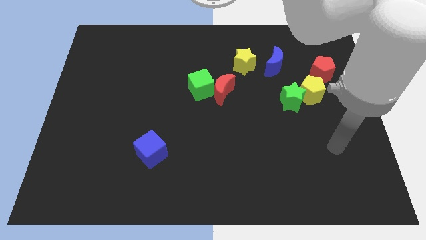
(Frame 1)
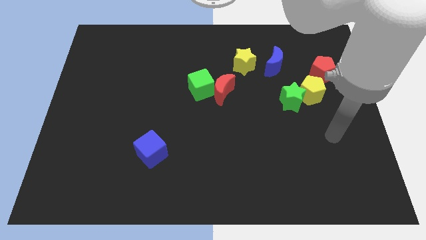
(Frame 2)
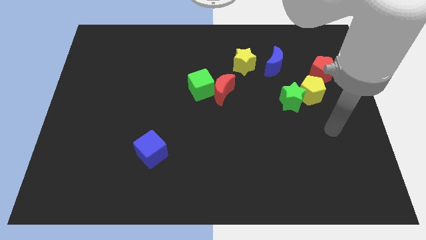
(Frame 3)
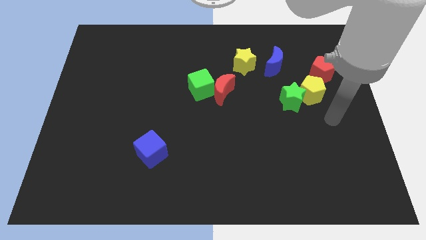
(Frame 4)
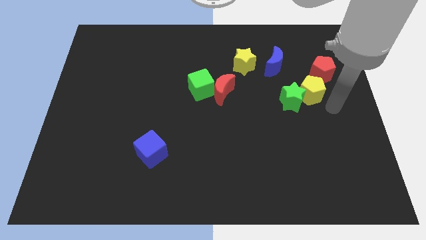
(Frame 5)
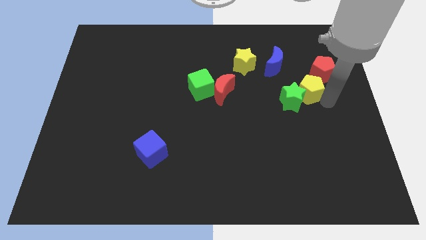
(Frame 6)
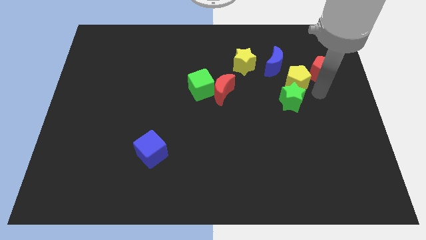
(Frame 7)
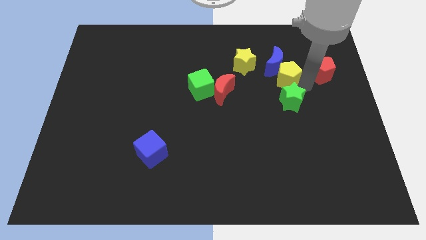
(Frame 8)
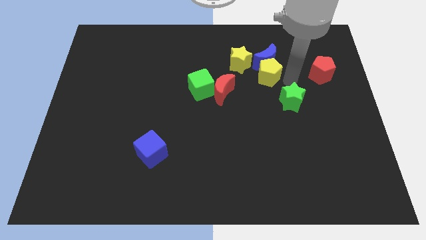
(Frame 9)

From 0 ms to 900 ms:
move the green star away from the yellow pentagon

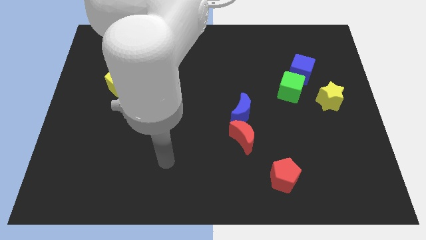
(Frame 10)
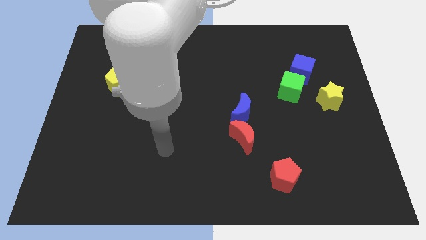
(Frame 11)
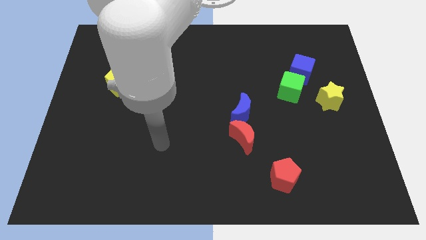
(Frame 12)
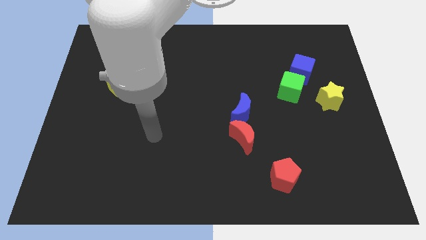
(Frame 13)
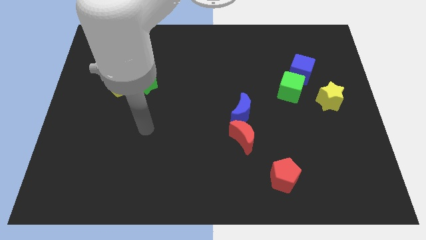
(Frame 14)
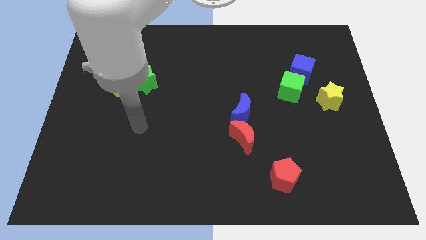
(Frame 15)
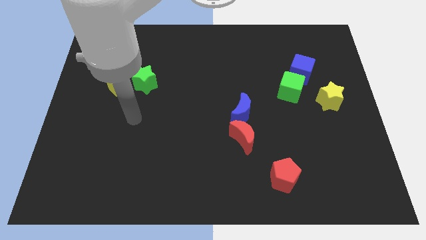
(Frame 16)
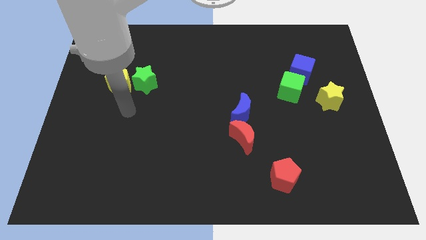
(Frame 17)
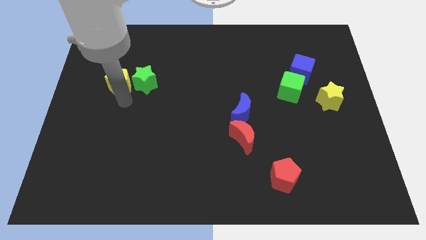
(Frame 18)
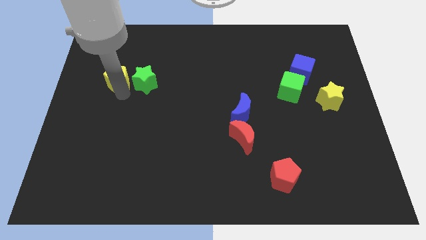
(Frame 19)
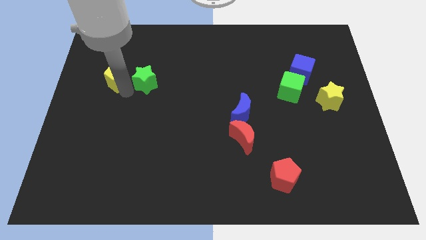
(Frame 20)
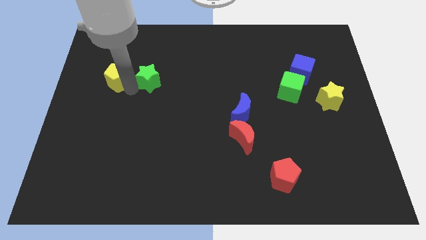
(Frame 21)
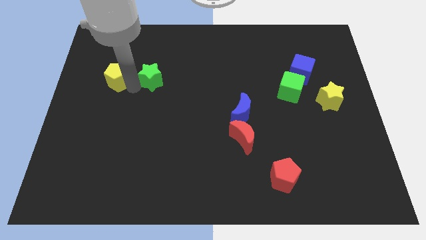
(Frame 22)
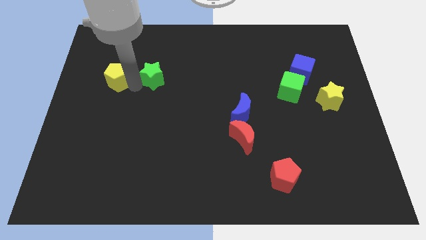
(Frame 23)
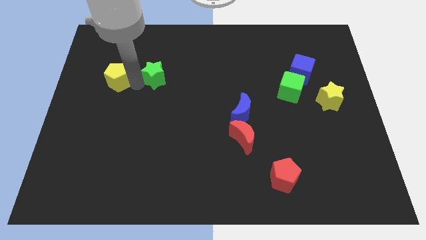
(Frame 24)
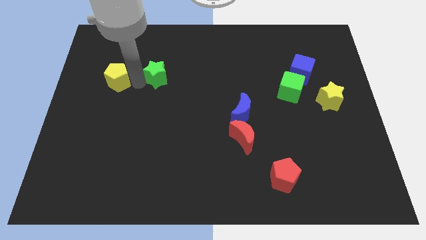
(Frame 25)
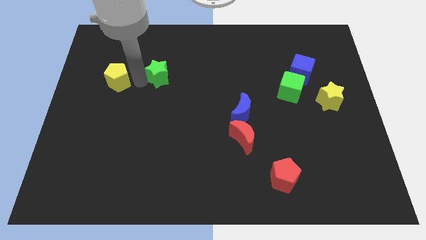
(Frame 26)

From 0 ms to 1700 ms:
pull the green star apart from the yellow pentagon

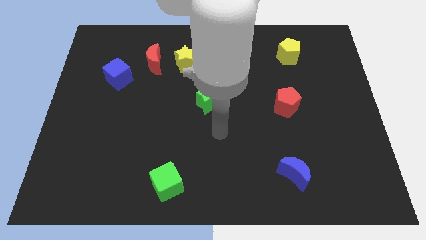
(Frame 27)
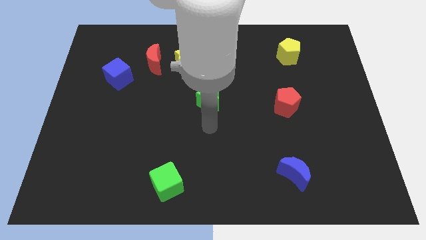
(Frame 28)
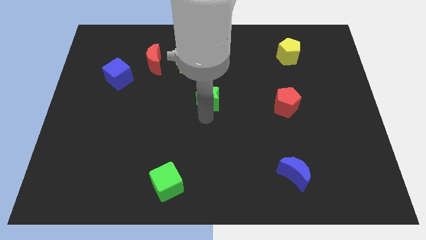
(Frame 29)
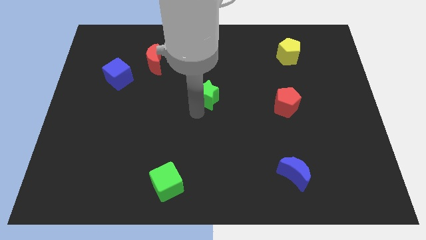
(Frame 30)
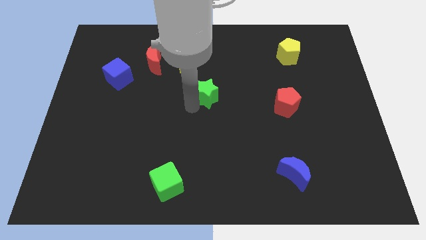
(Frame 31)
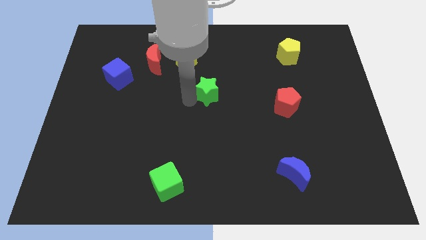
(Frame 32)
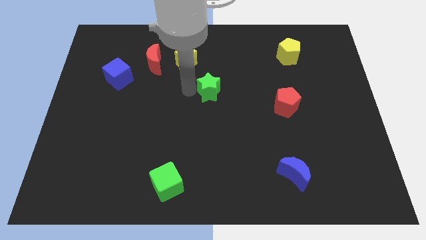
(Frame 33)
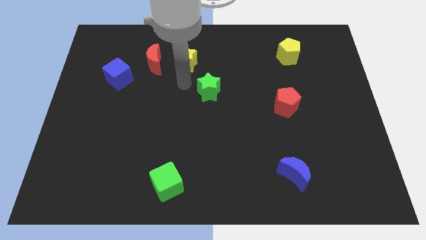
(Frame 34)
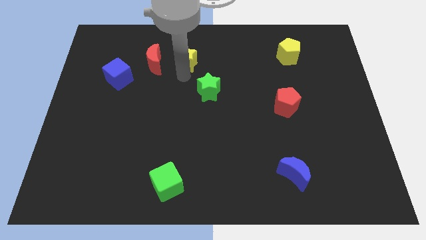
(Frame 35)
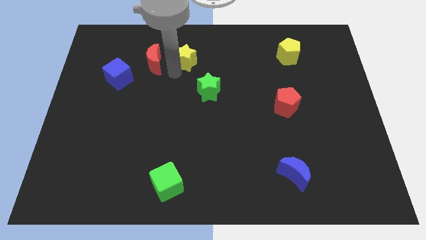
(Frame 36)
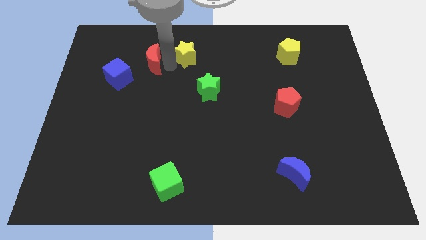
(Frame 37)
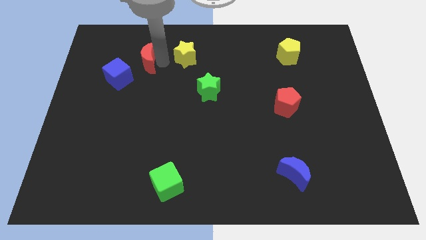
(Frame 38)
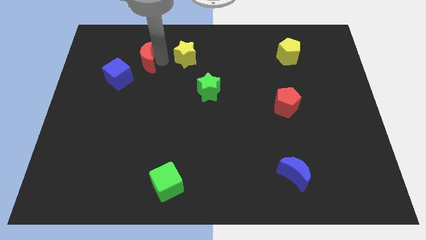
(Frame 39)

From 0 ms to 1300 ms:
separate the yellow star from the red moon

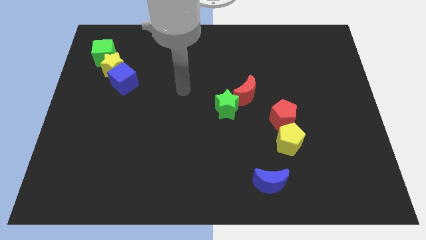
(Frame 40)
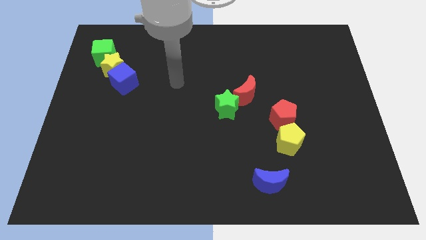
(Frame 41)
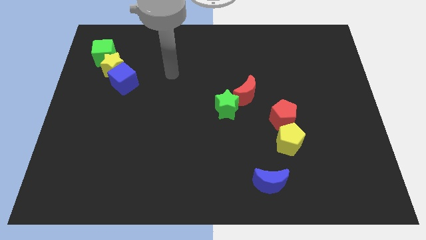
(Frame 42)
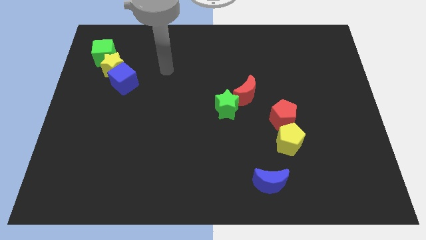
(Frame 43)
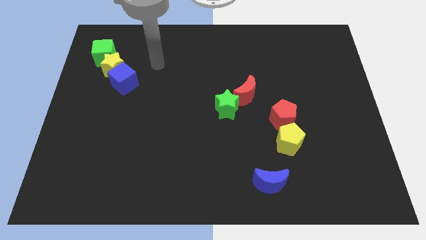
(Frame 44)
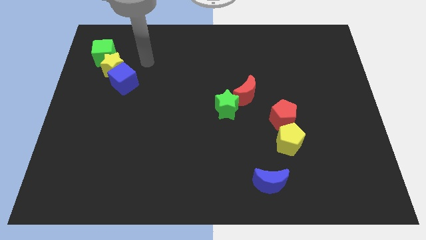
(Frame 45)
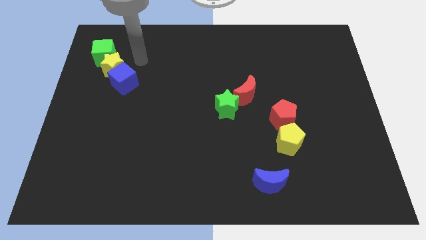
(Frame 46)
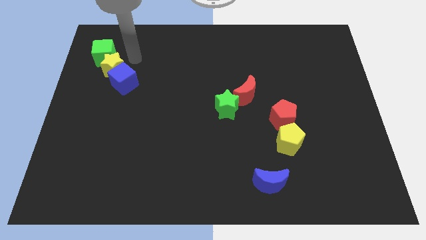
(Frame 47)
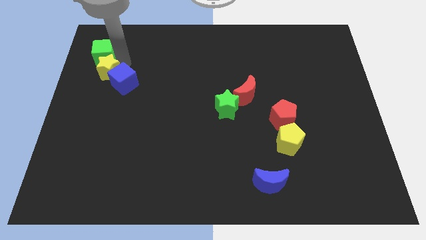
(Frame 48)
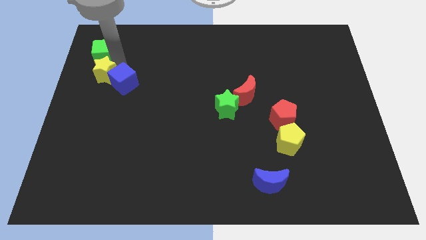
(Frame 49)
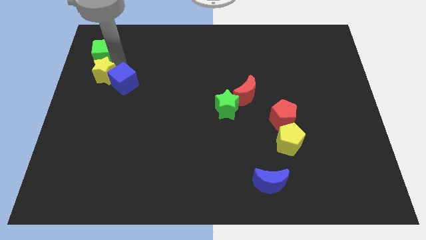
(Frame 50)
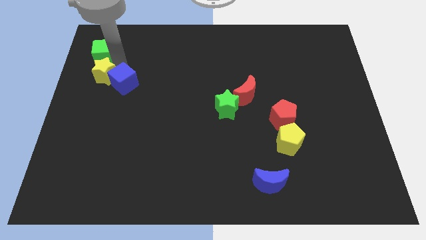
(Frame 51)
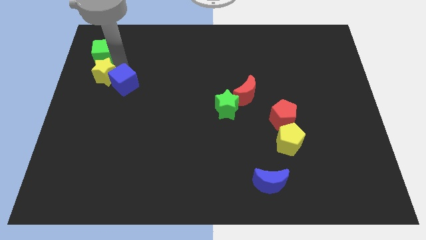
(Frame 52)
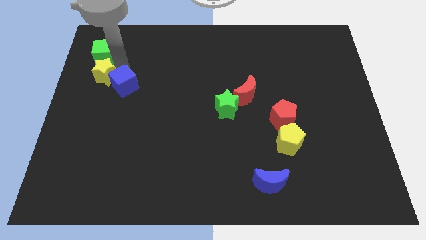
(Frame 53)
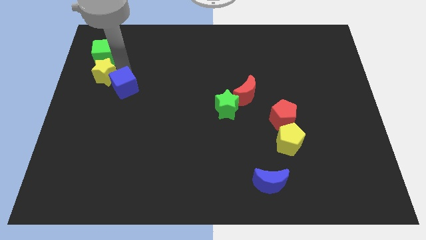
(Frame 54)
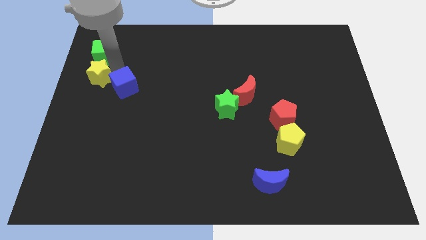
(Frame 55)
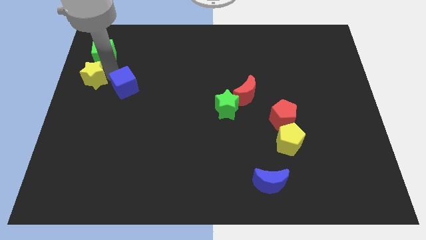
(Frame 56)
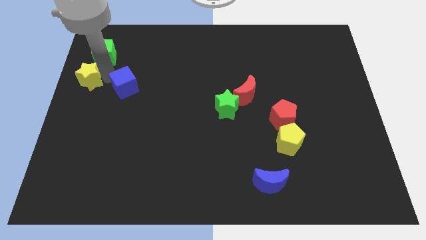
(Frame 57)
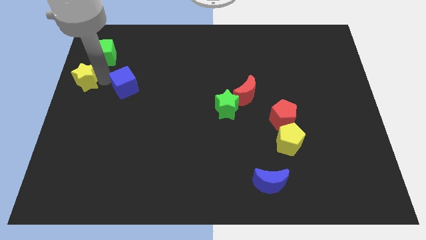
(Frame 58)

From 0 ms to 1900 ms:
pull the blue cube apart from the yellow star

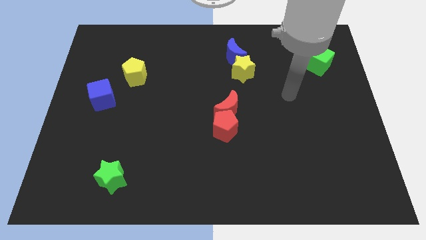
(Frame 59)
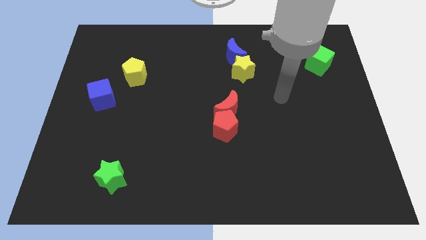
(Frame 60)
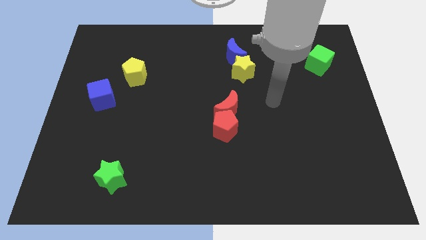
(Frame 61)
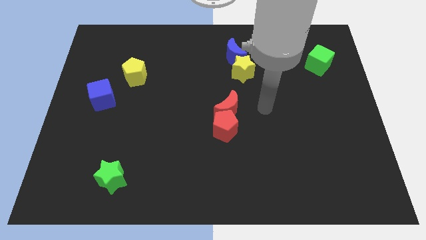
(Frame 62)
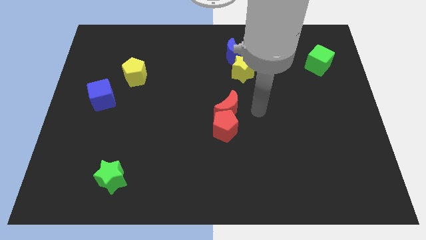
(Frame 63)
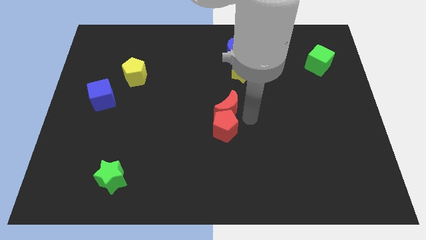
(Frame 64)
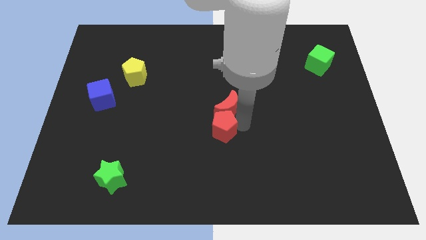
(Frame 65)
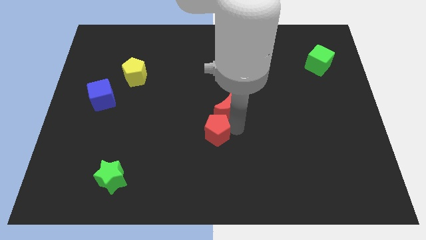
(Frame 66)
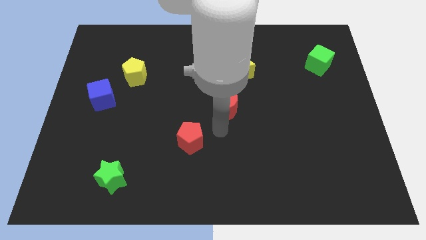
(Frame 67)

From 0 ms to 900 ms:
pull the red moon apart from the red pentagon

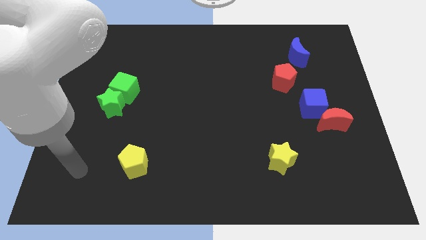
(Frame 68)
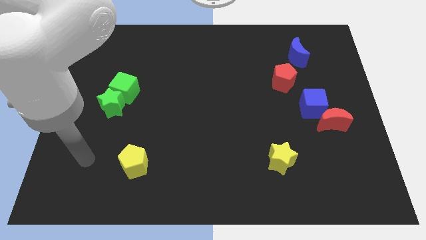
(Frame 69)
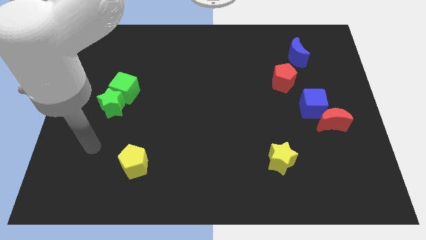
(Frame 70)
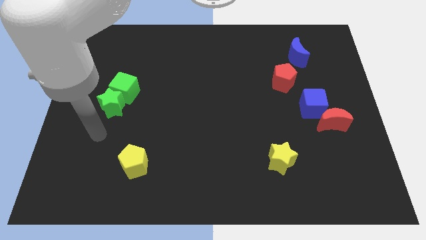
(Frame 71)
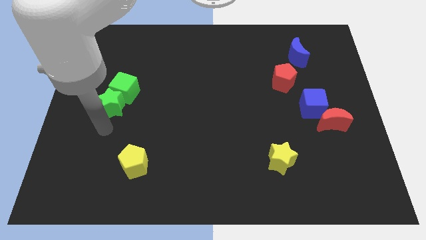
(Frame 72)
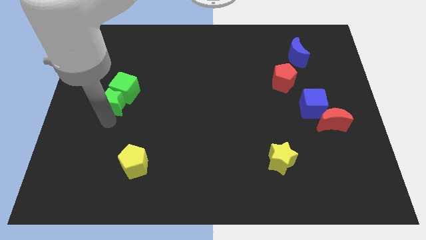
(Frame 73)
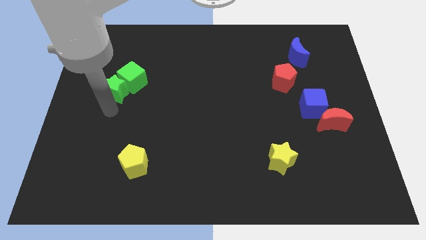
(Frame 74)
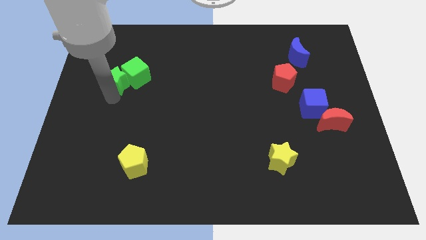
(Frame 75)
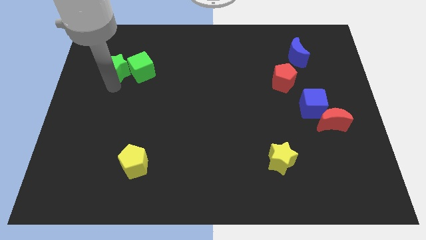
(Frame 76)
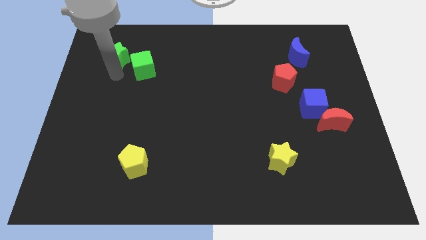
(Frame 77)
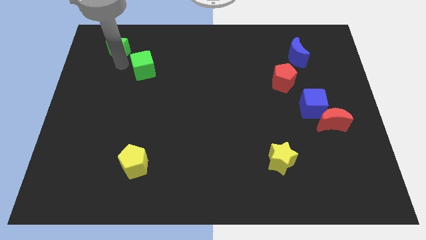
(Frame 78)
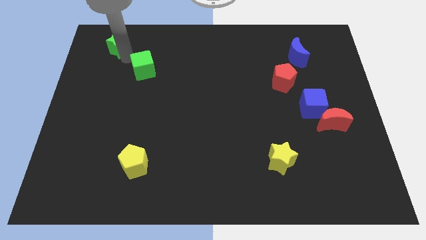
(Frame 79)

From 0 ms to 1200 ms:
pull the green cube apart from the green star

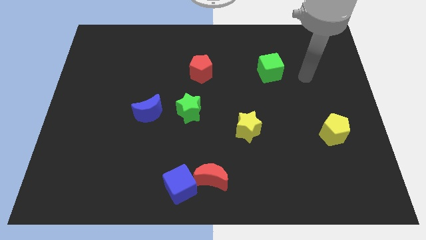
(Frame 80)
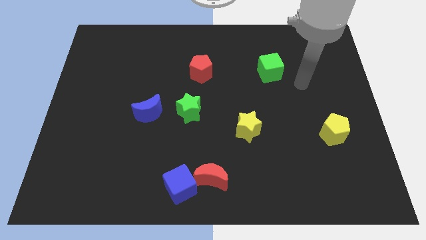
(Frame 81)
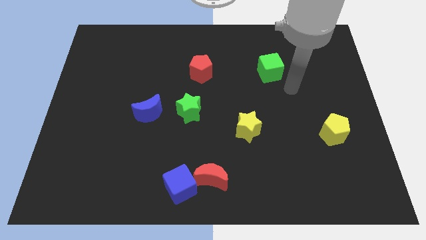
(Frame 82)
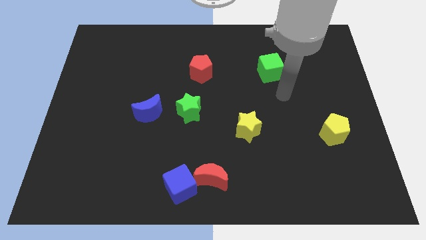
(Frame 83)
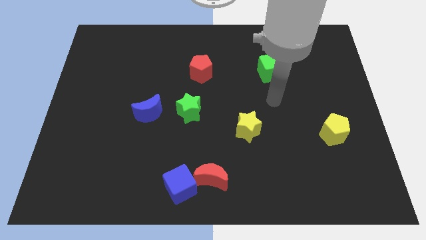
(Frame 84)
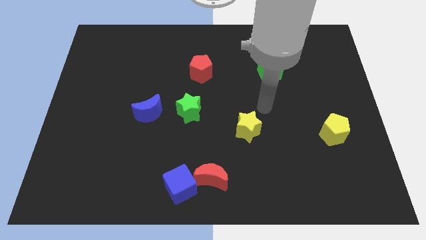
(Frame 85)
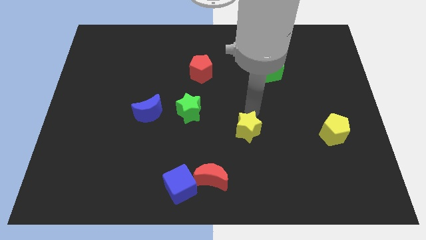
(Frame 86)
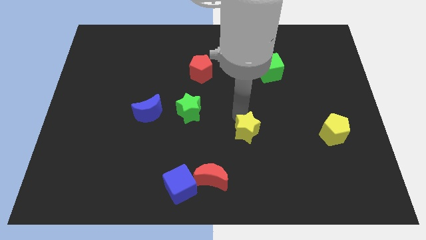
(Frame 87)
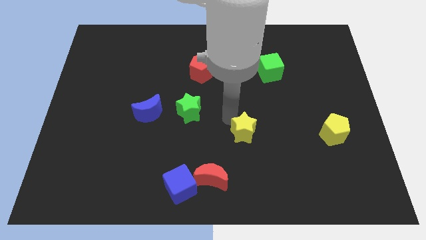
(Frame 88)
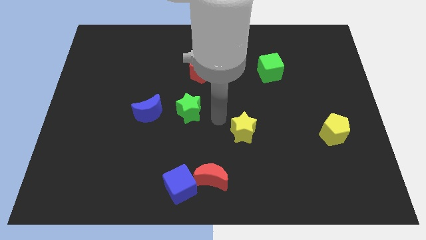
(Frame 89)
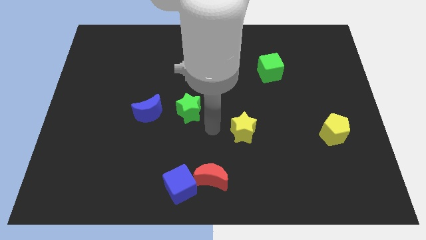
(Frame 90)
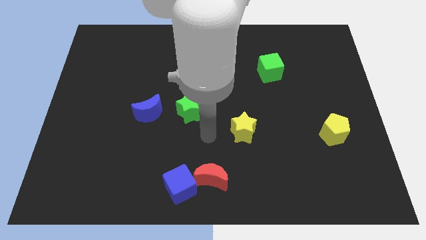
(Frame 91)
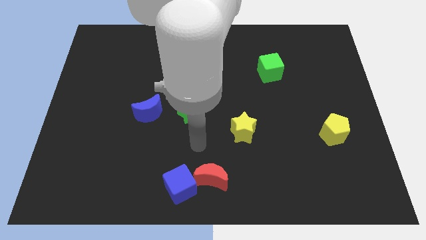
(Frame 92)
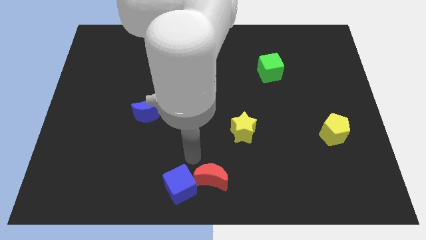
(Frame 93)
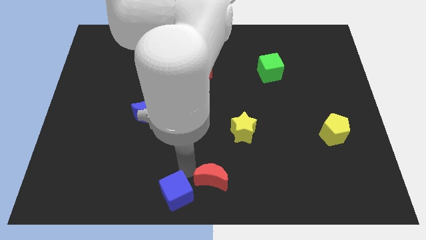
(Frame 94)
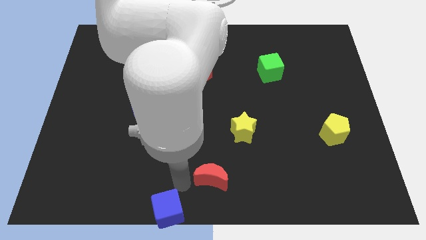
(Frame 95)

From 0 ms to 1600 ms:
move the red moon away from the blue cube
